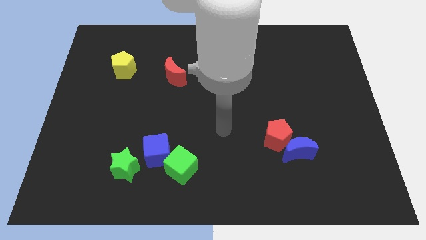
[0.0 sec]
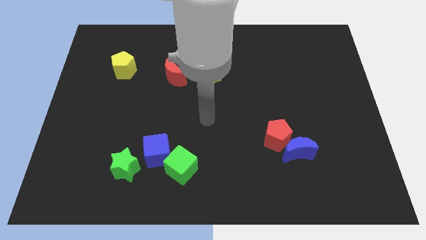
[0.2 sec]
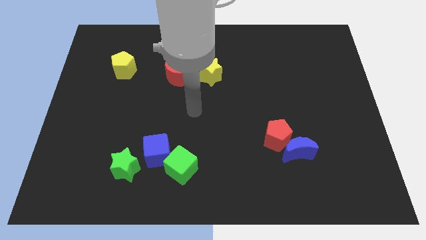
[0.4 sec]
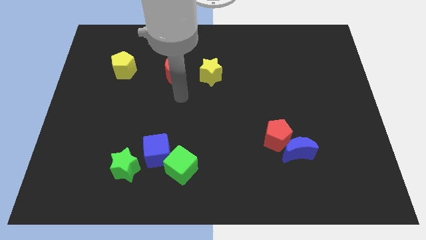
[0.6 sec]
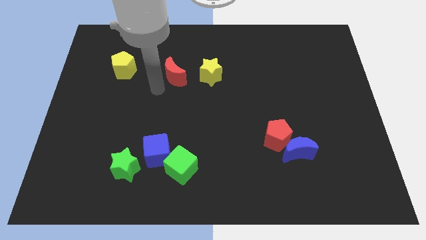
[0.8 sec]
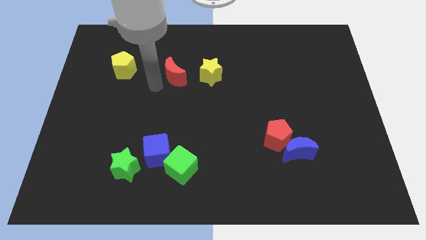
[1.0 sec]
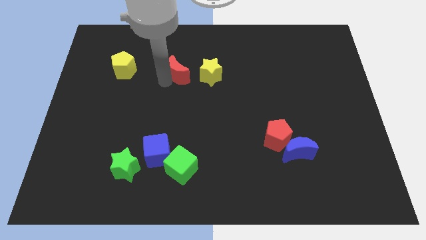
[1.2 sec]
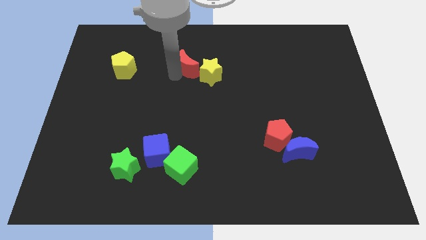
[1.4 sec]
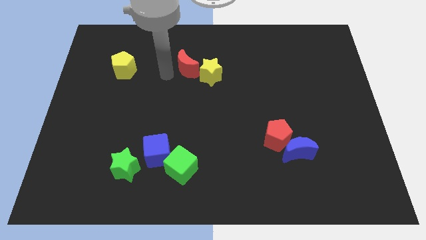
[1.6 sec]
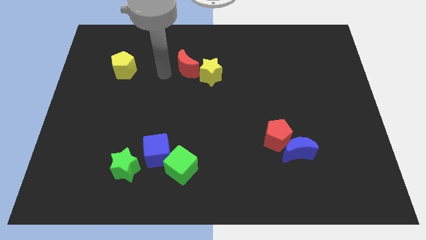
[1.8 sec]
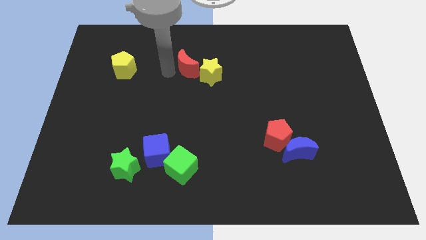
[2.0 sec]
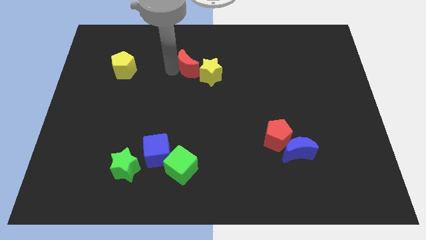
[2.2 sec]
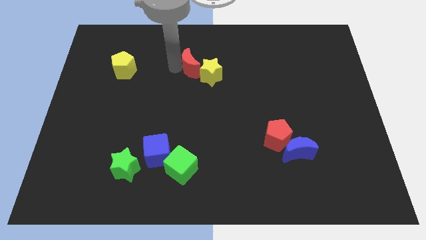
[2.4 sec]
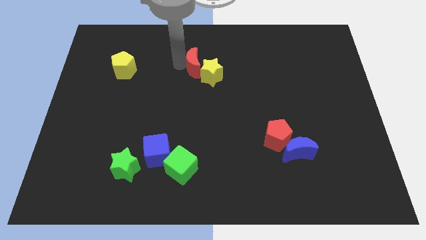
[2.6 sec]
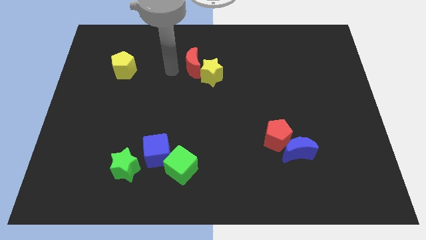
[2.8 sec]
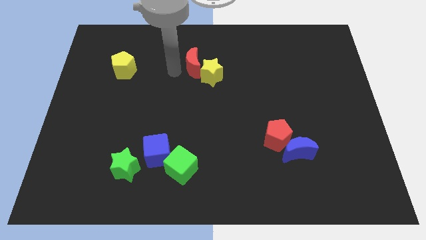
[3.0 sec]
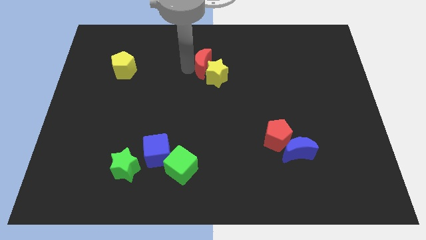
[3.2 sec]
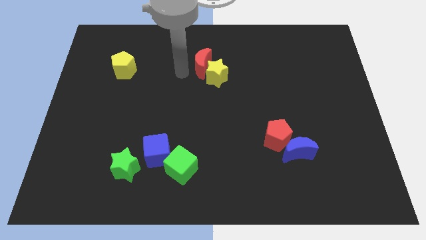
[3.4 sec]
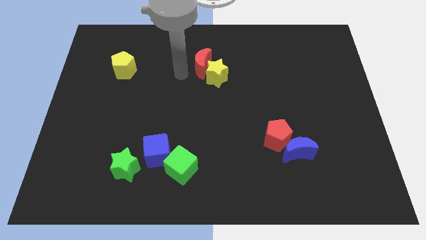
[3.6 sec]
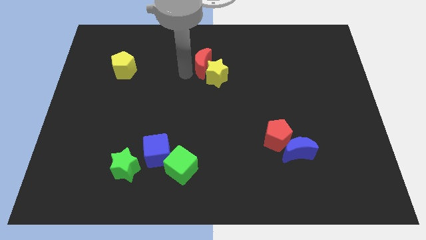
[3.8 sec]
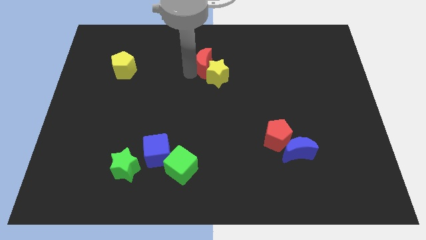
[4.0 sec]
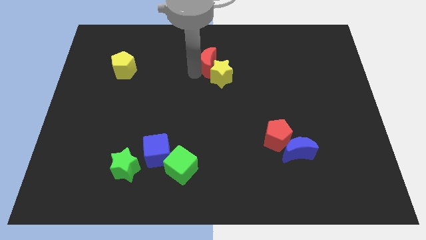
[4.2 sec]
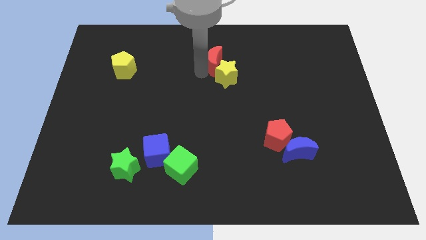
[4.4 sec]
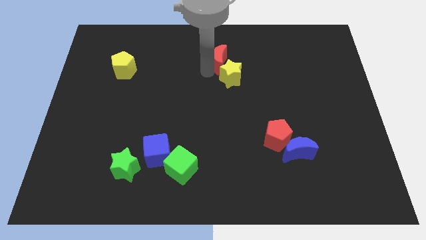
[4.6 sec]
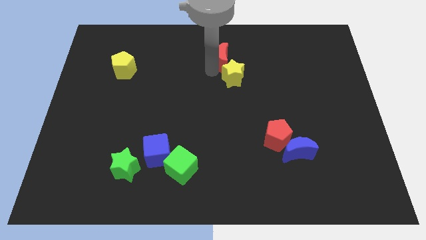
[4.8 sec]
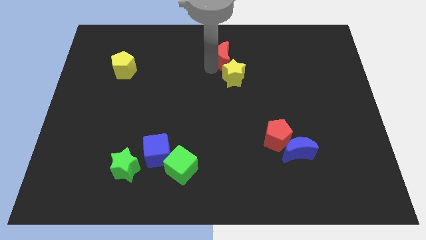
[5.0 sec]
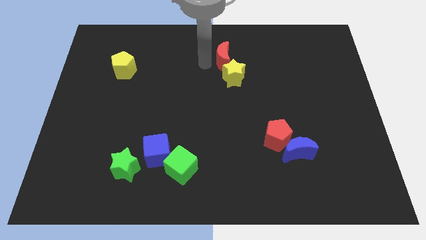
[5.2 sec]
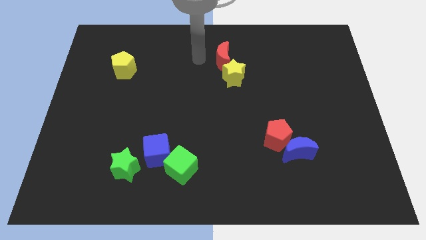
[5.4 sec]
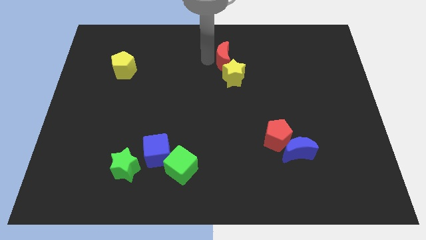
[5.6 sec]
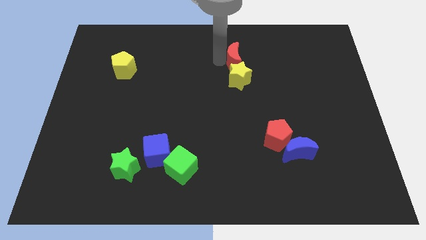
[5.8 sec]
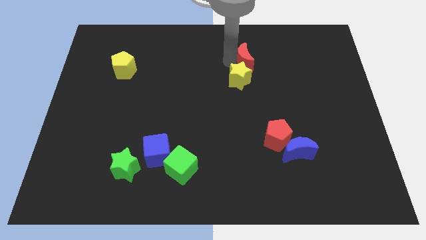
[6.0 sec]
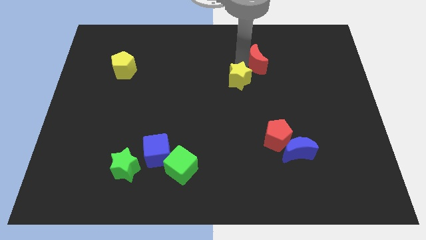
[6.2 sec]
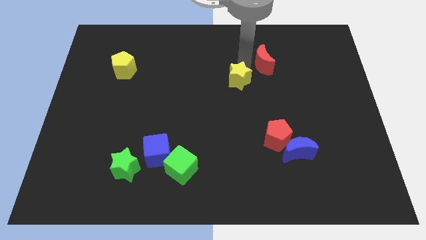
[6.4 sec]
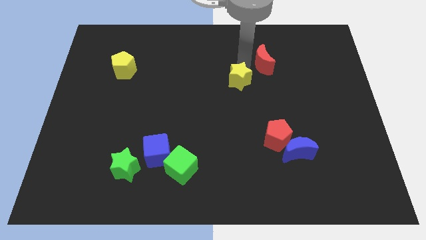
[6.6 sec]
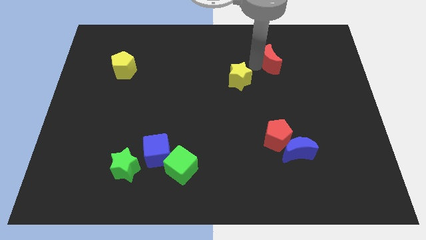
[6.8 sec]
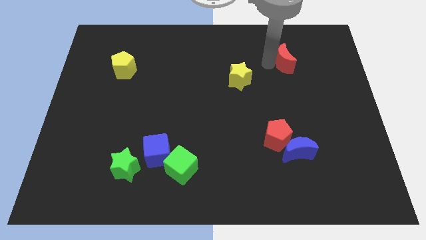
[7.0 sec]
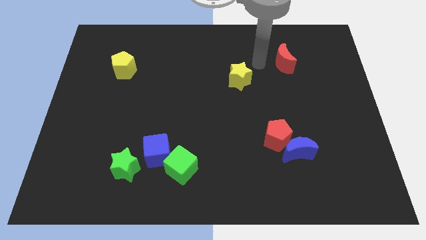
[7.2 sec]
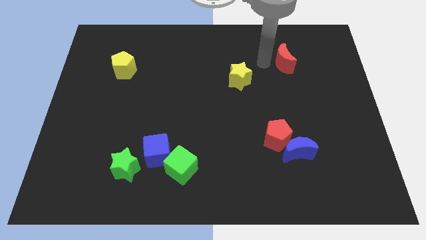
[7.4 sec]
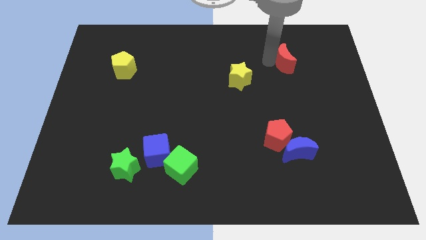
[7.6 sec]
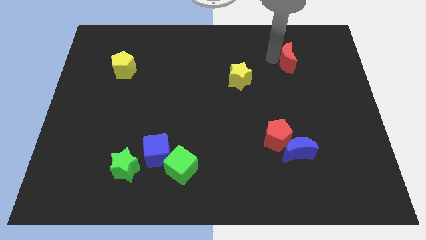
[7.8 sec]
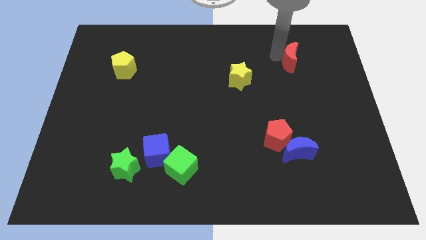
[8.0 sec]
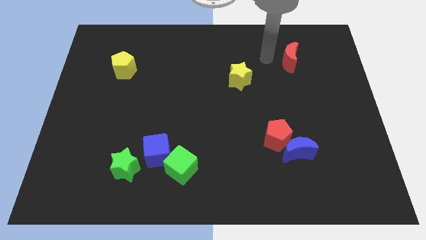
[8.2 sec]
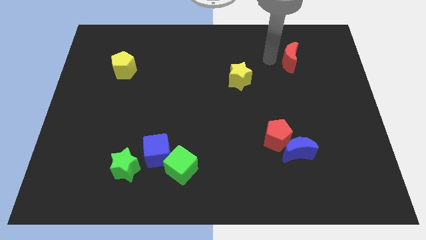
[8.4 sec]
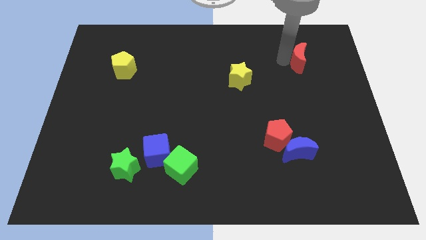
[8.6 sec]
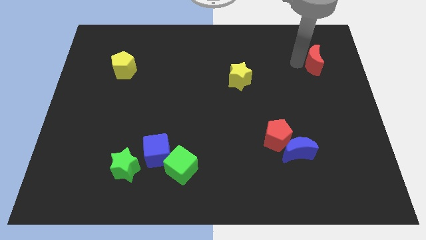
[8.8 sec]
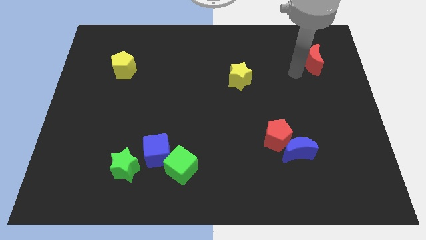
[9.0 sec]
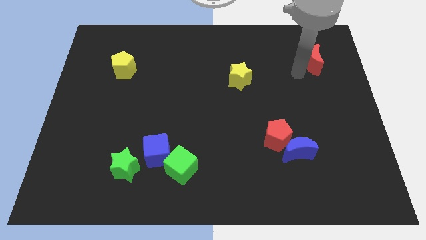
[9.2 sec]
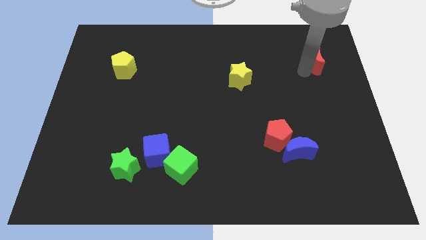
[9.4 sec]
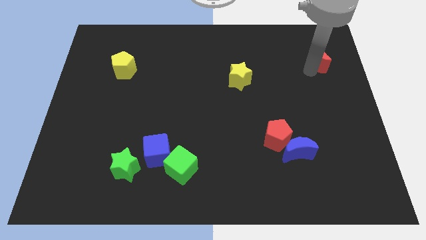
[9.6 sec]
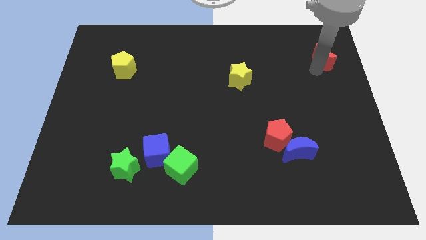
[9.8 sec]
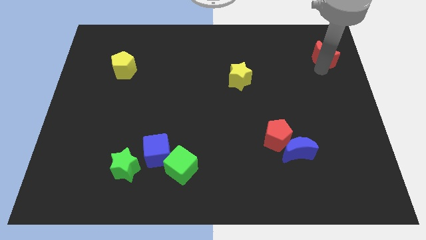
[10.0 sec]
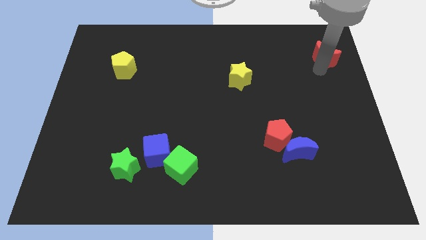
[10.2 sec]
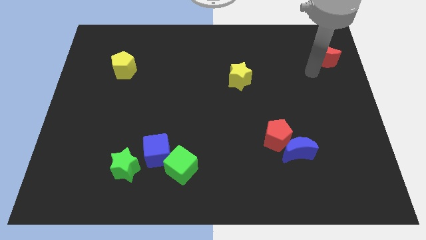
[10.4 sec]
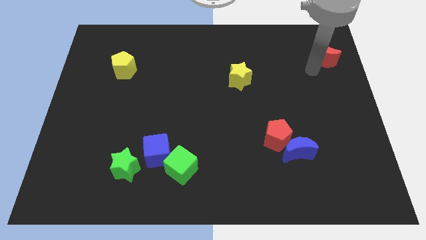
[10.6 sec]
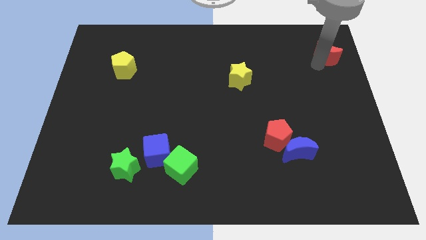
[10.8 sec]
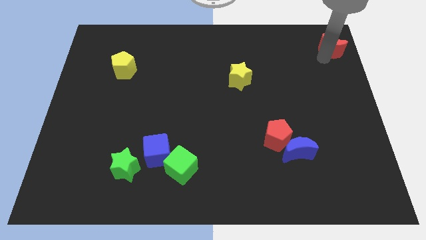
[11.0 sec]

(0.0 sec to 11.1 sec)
move the red moon to the top right
